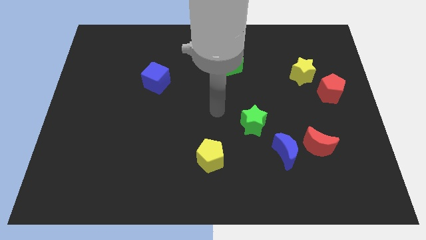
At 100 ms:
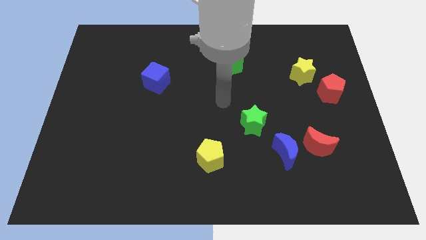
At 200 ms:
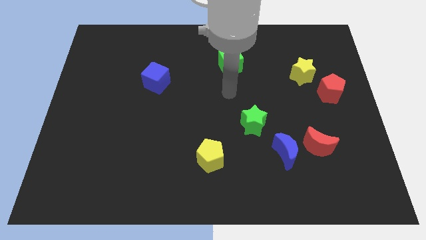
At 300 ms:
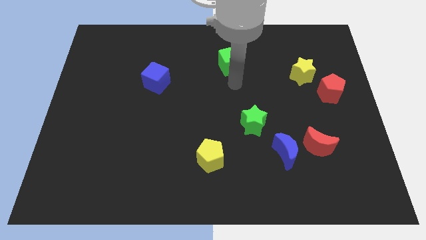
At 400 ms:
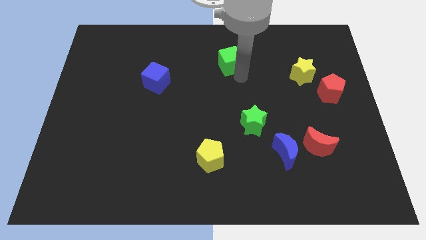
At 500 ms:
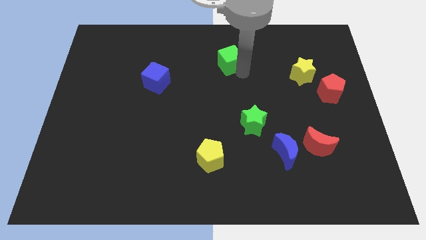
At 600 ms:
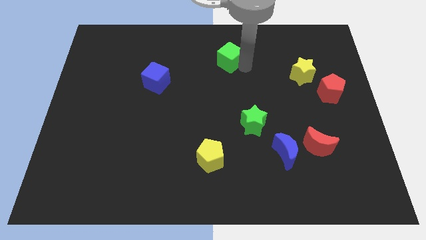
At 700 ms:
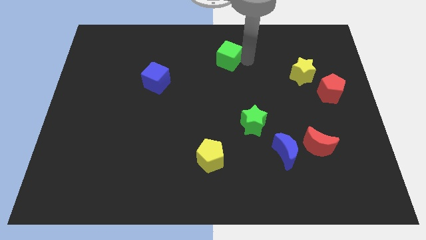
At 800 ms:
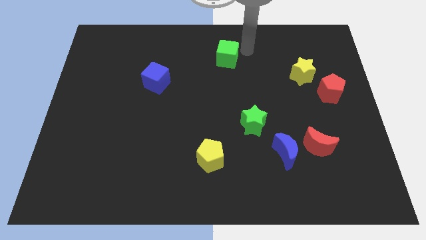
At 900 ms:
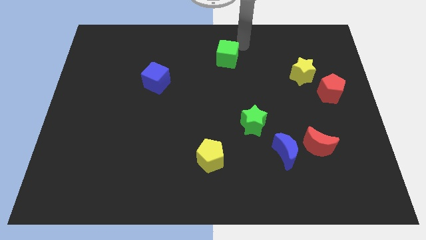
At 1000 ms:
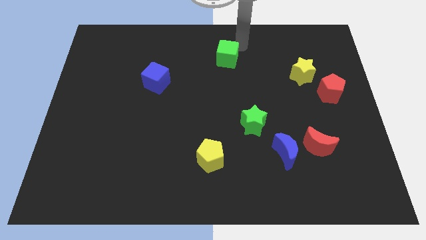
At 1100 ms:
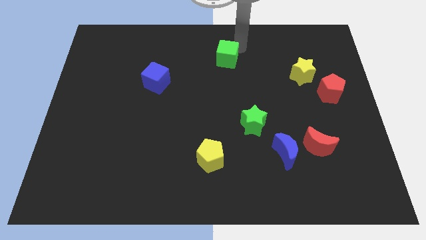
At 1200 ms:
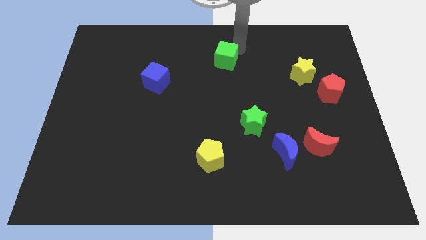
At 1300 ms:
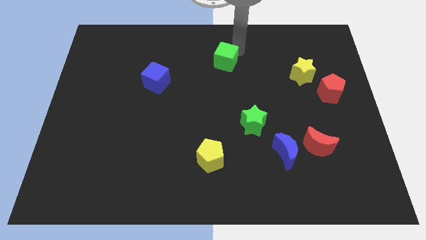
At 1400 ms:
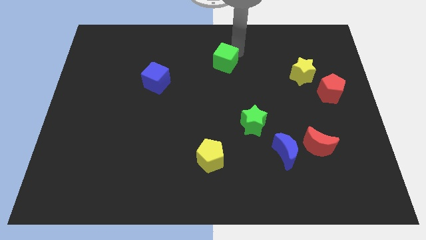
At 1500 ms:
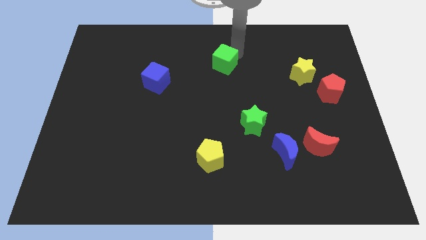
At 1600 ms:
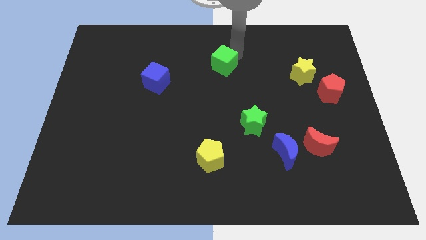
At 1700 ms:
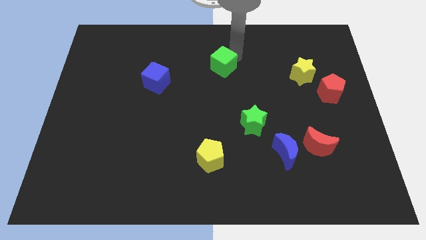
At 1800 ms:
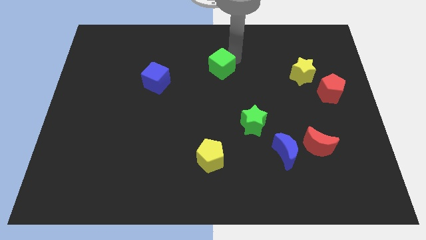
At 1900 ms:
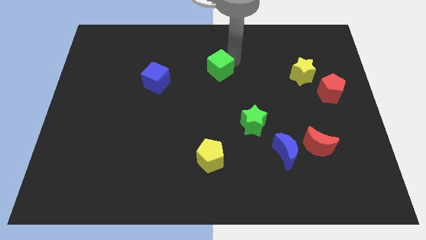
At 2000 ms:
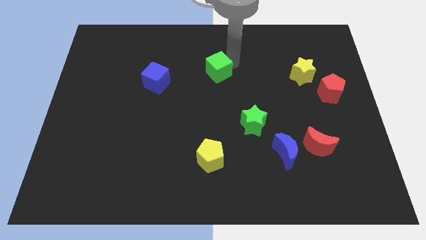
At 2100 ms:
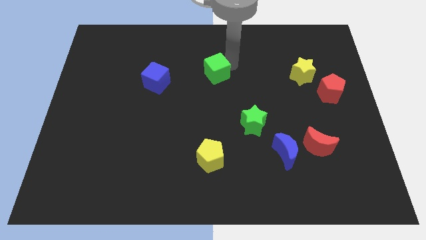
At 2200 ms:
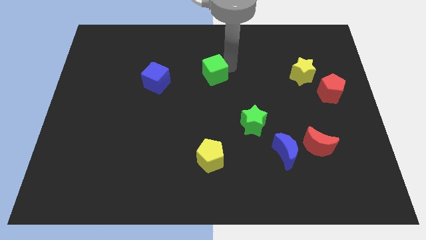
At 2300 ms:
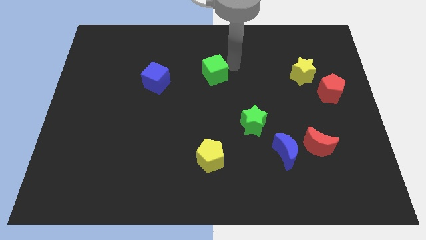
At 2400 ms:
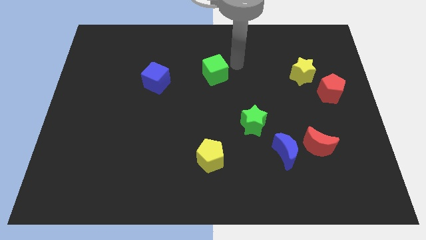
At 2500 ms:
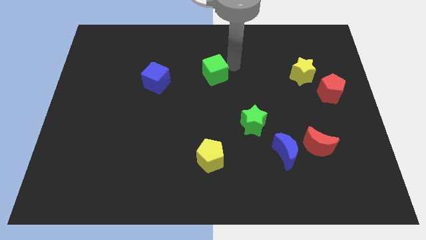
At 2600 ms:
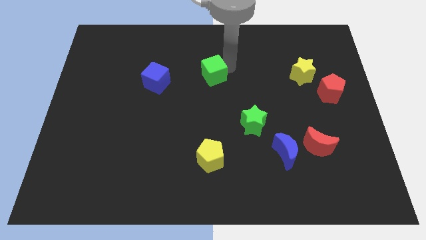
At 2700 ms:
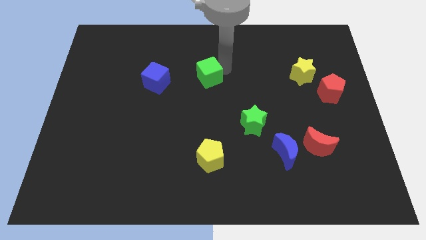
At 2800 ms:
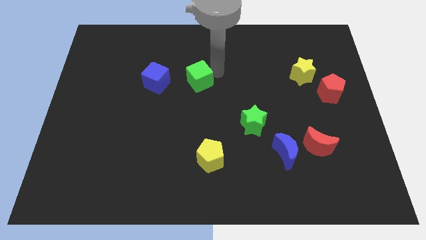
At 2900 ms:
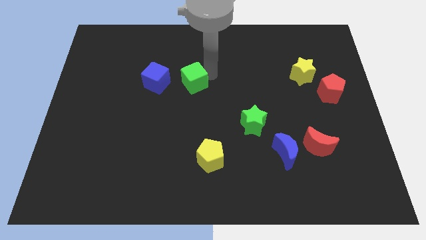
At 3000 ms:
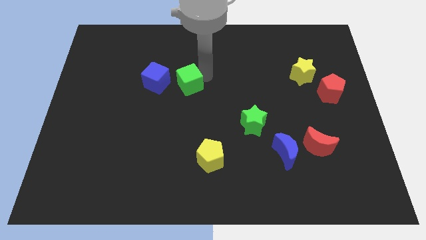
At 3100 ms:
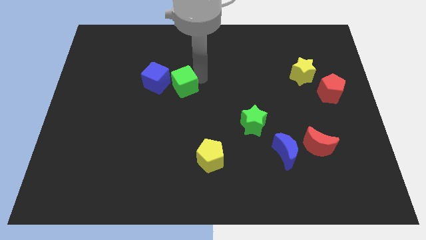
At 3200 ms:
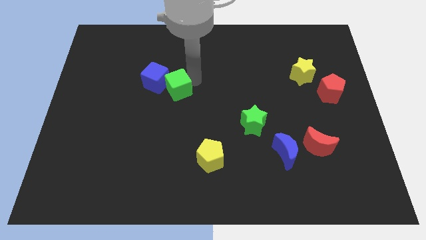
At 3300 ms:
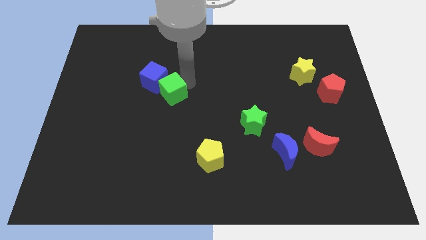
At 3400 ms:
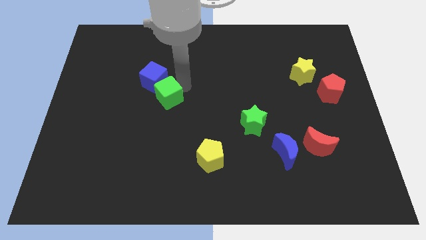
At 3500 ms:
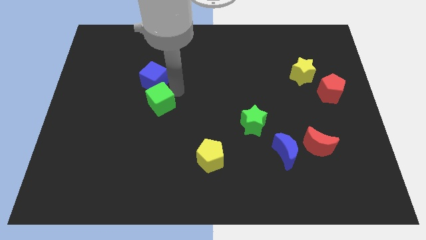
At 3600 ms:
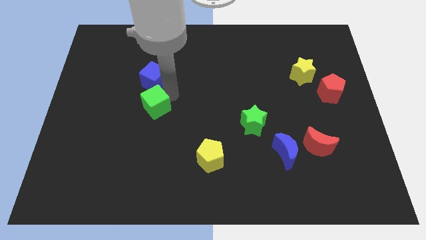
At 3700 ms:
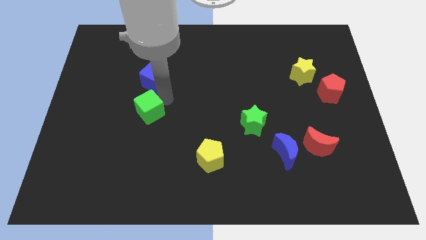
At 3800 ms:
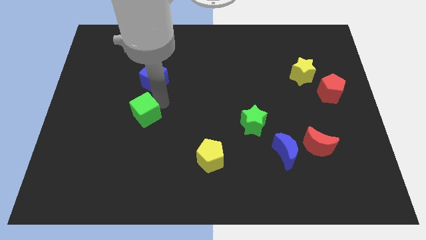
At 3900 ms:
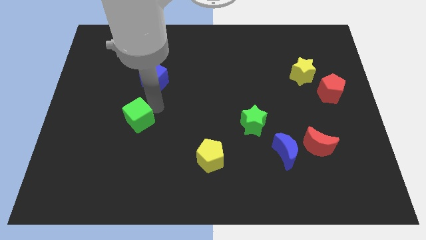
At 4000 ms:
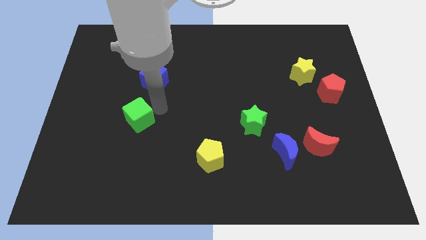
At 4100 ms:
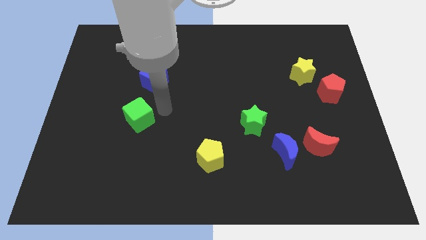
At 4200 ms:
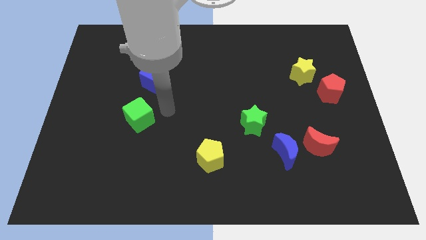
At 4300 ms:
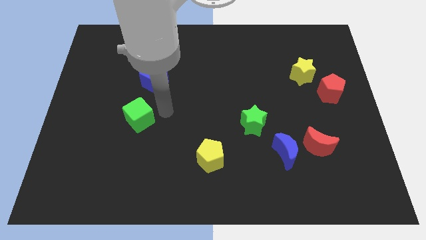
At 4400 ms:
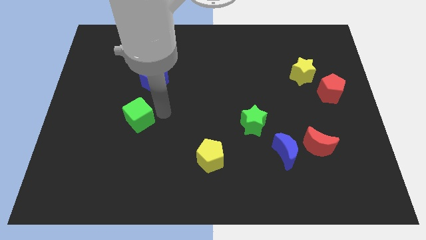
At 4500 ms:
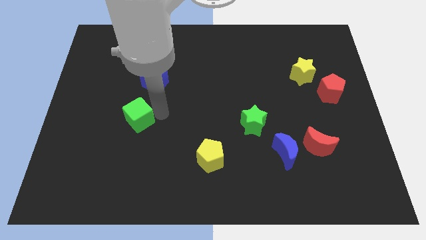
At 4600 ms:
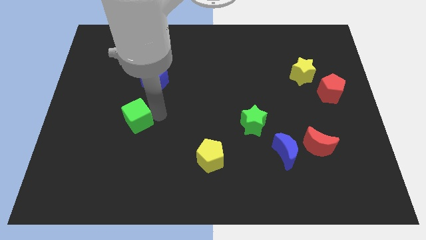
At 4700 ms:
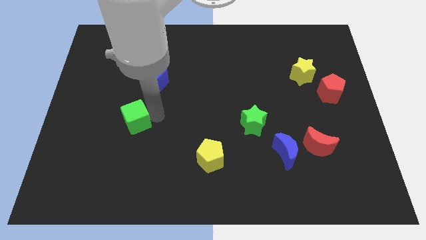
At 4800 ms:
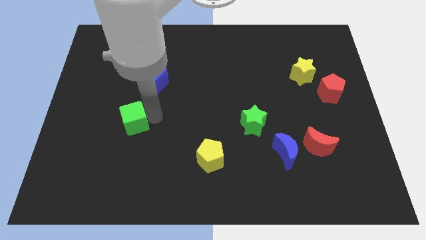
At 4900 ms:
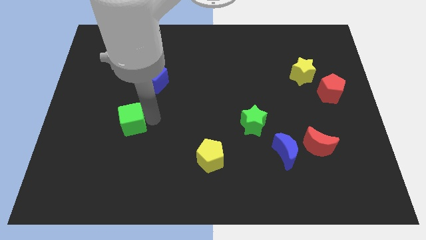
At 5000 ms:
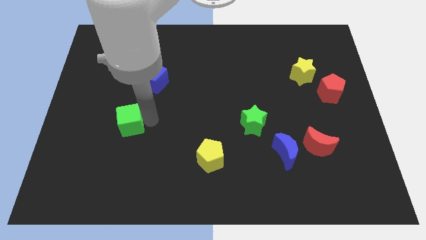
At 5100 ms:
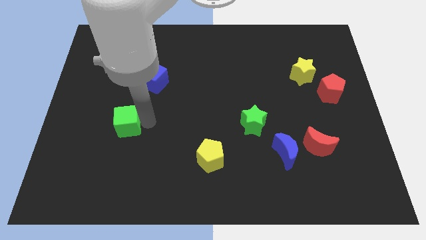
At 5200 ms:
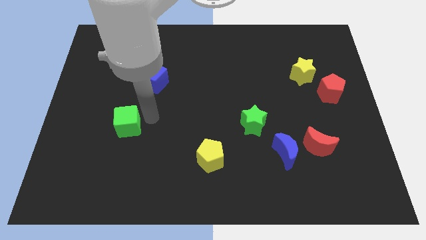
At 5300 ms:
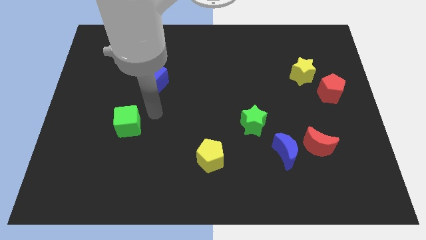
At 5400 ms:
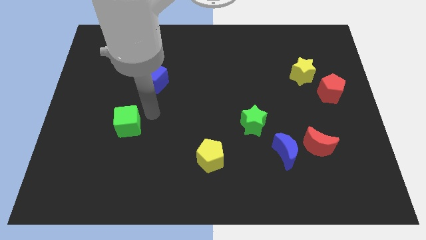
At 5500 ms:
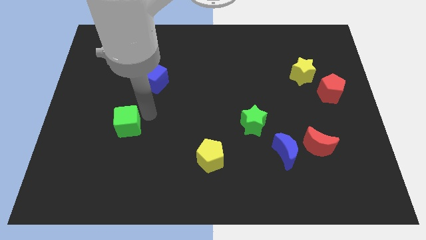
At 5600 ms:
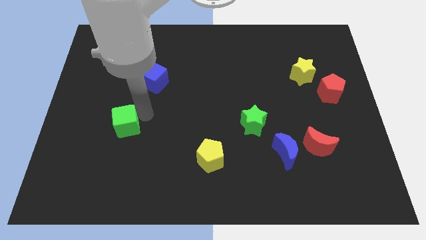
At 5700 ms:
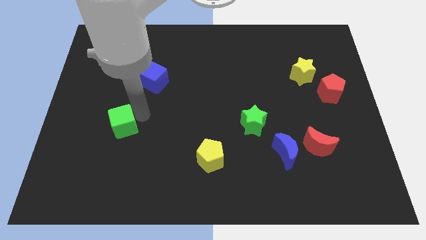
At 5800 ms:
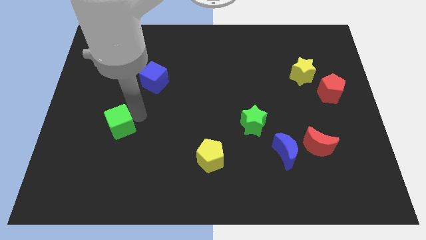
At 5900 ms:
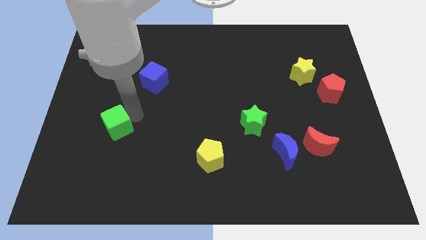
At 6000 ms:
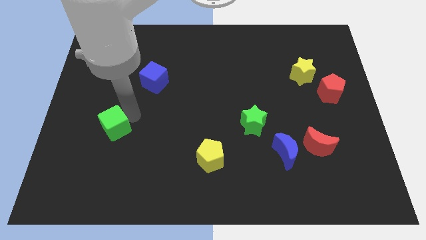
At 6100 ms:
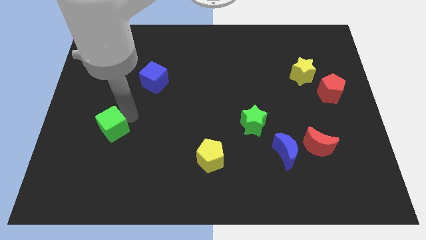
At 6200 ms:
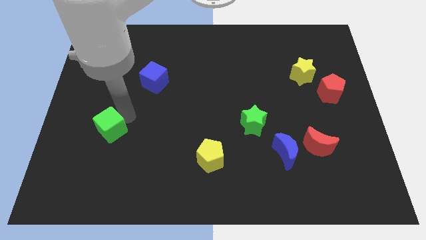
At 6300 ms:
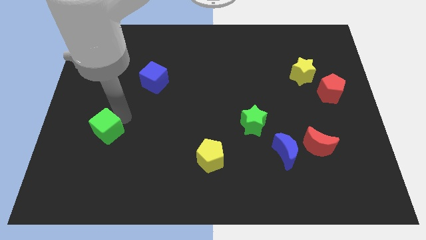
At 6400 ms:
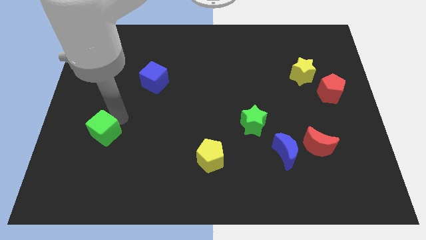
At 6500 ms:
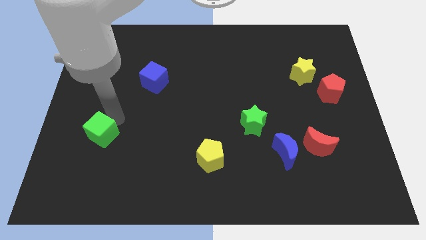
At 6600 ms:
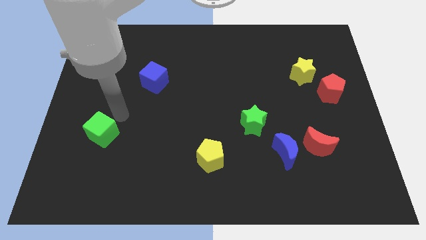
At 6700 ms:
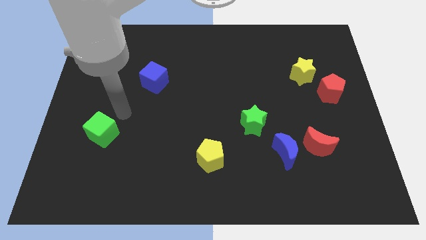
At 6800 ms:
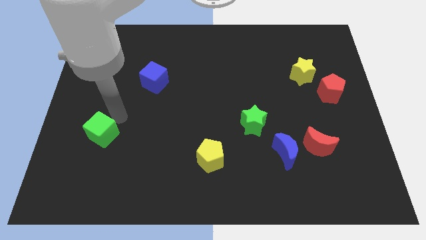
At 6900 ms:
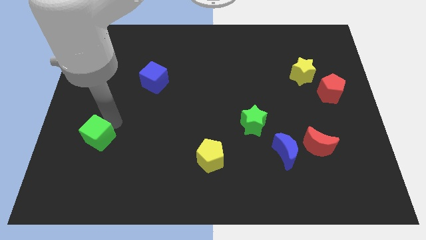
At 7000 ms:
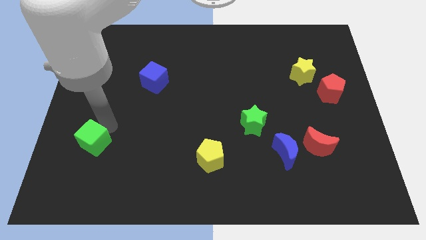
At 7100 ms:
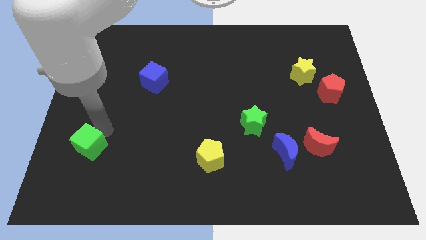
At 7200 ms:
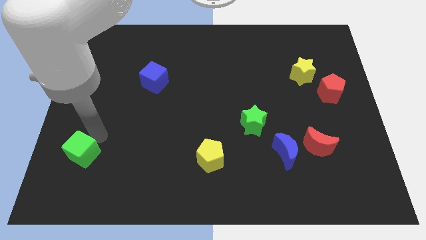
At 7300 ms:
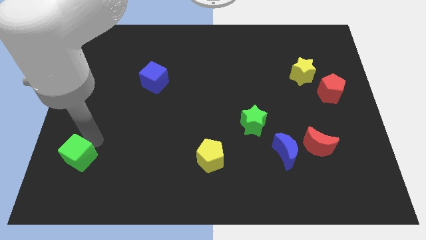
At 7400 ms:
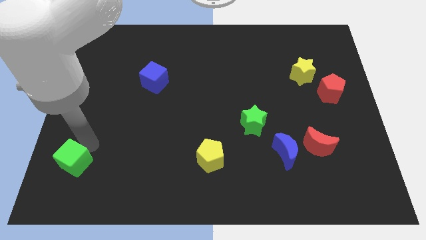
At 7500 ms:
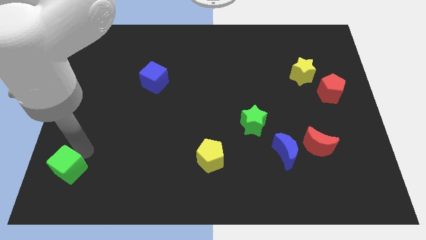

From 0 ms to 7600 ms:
slide the green cube to the bottom left
